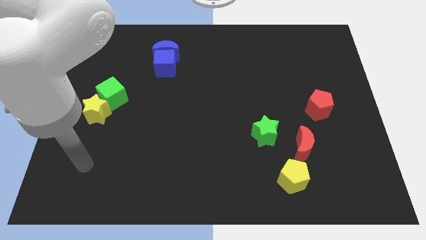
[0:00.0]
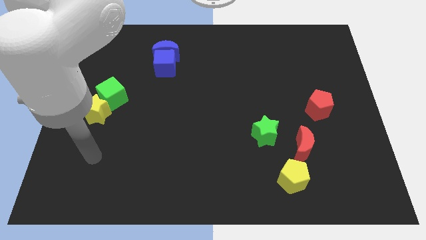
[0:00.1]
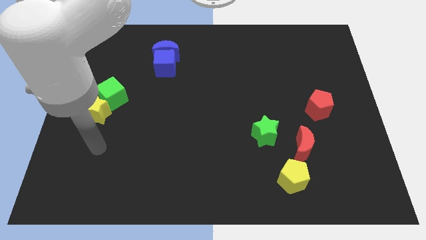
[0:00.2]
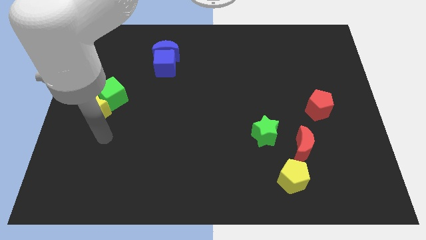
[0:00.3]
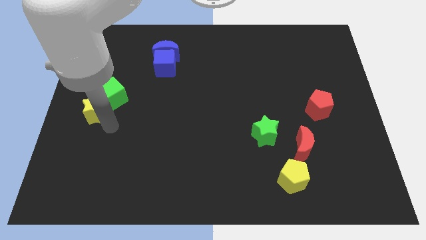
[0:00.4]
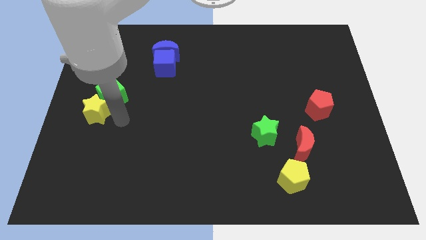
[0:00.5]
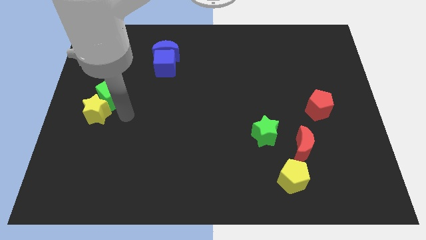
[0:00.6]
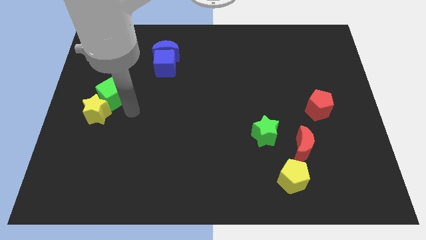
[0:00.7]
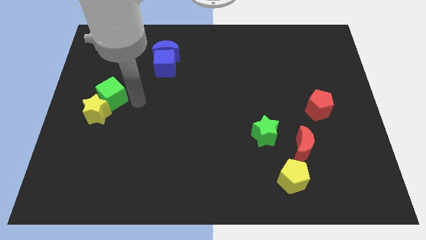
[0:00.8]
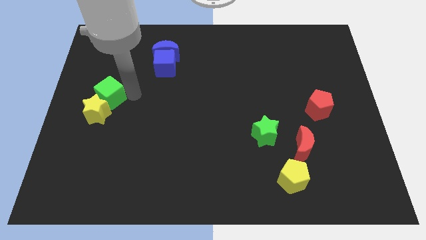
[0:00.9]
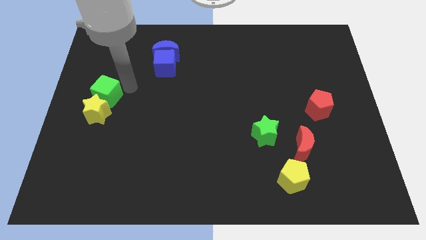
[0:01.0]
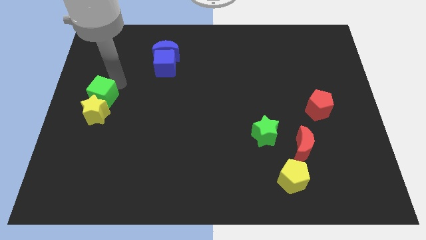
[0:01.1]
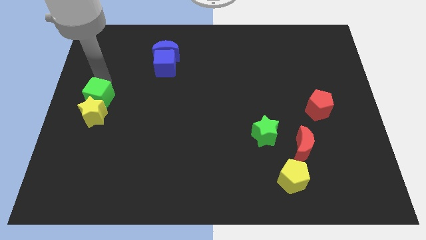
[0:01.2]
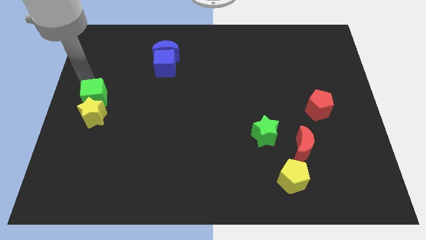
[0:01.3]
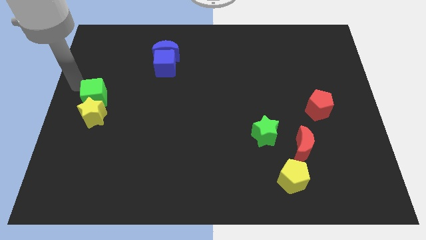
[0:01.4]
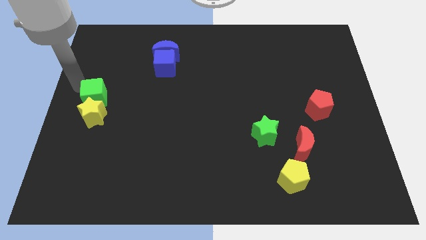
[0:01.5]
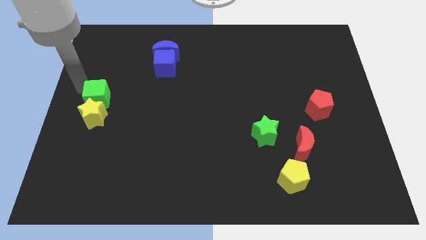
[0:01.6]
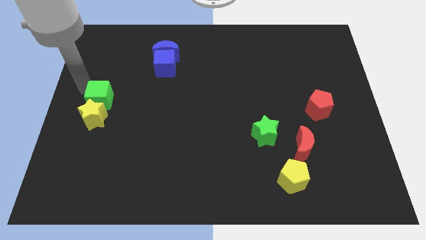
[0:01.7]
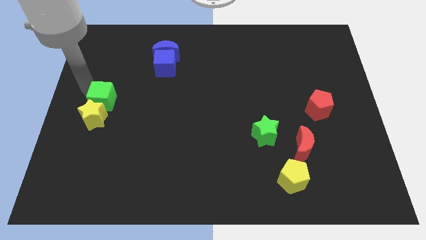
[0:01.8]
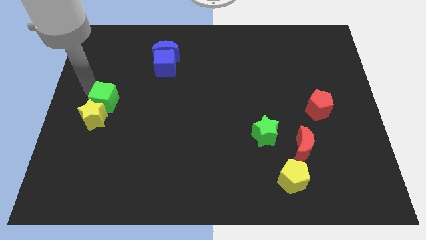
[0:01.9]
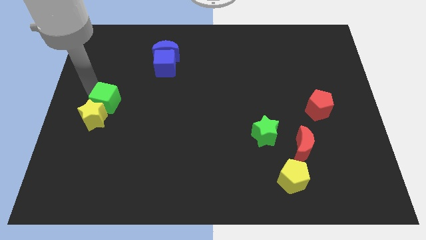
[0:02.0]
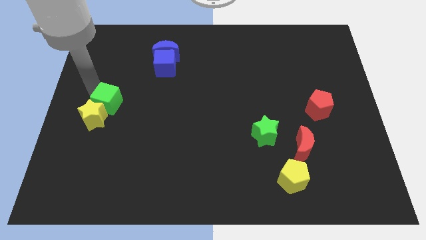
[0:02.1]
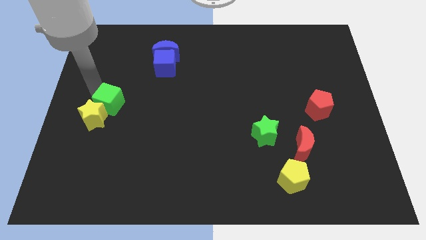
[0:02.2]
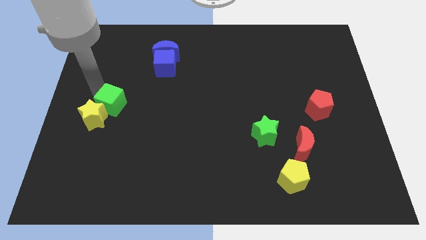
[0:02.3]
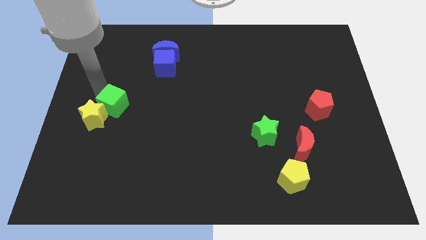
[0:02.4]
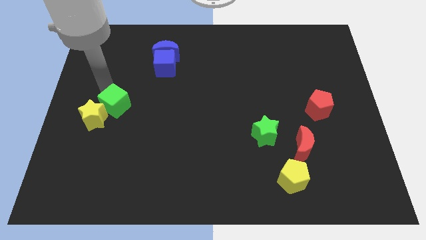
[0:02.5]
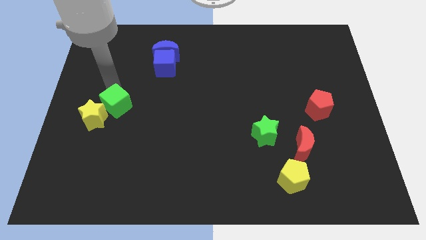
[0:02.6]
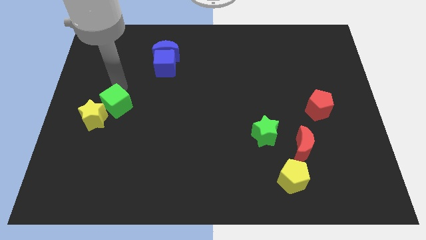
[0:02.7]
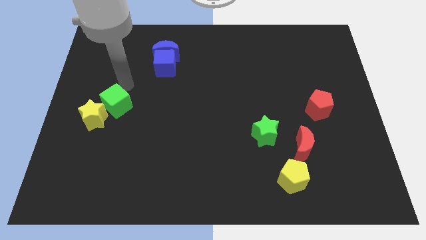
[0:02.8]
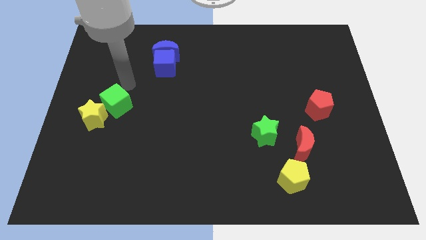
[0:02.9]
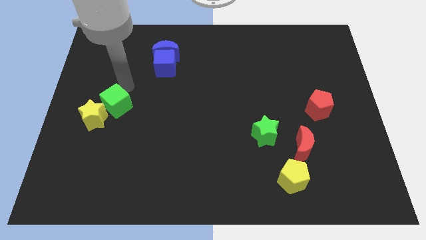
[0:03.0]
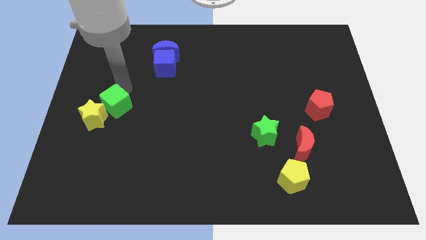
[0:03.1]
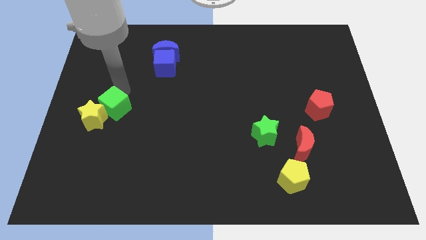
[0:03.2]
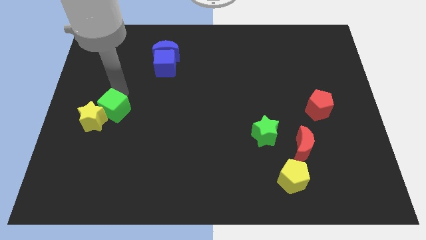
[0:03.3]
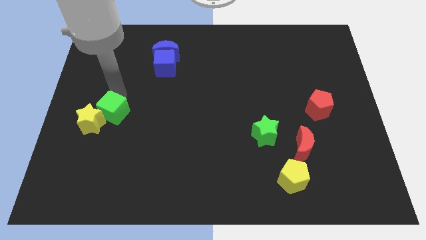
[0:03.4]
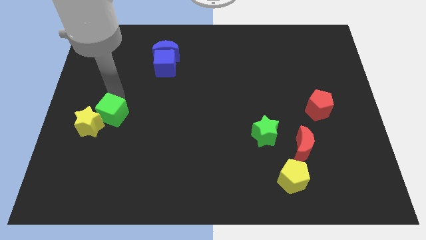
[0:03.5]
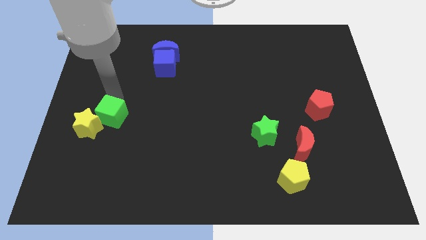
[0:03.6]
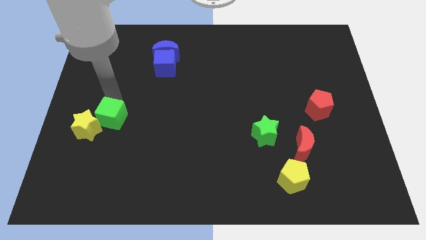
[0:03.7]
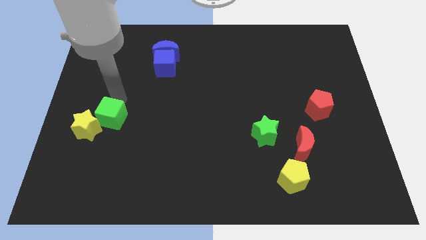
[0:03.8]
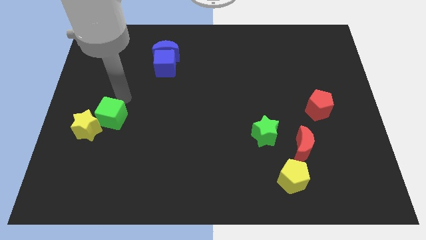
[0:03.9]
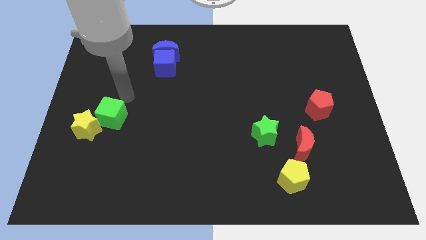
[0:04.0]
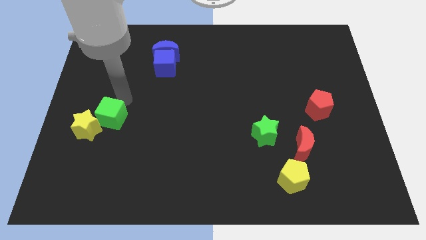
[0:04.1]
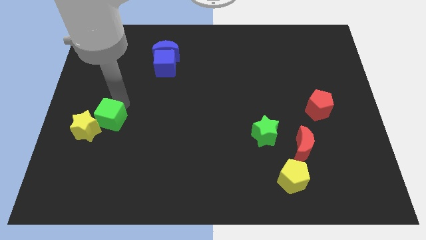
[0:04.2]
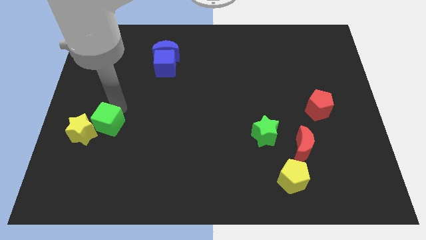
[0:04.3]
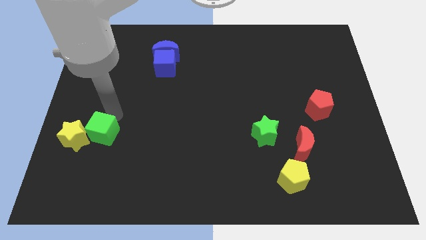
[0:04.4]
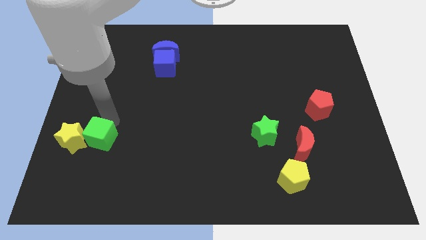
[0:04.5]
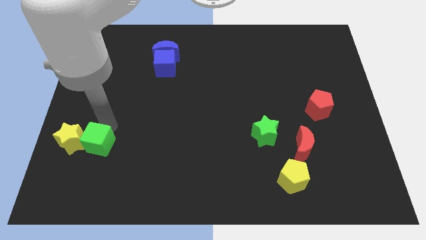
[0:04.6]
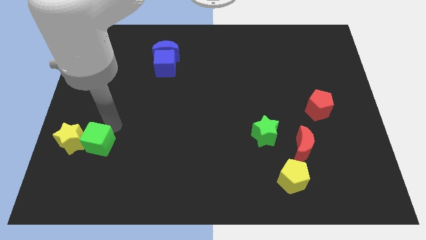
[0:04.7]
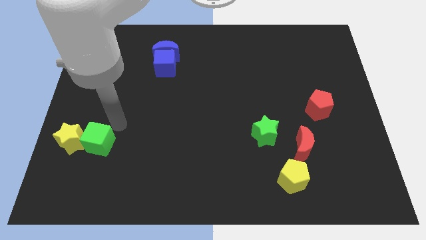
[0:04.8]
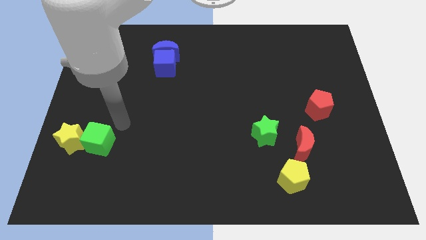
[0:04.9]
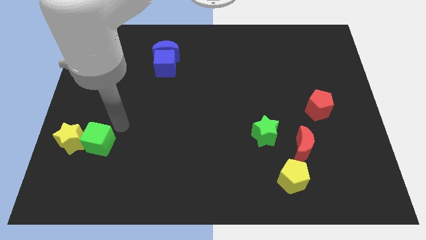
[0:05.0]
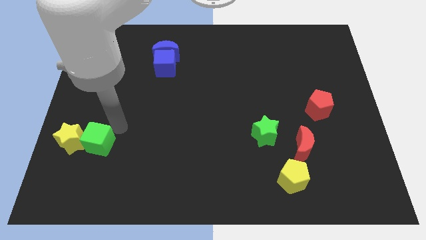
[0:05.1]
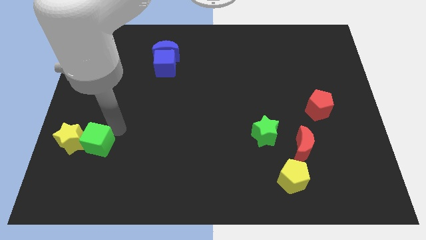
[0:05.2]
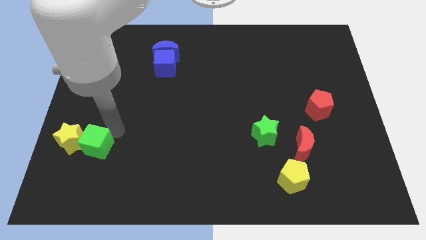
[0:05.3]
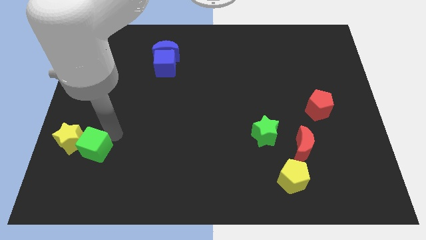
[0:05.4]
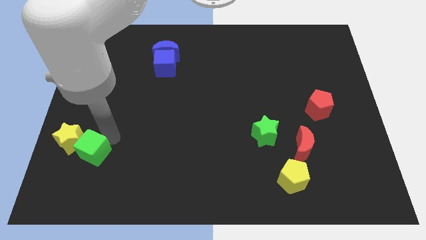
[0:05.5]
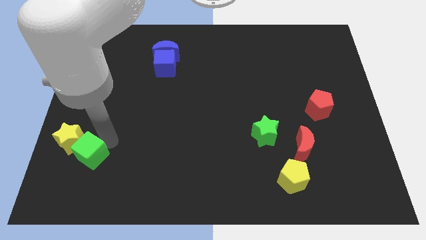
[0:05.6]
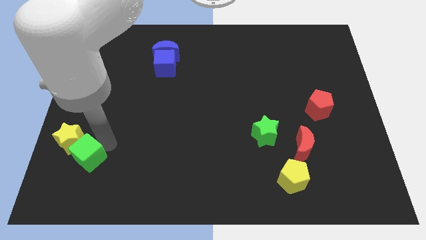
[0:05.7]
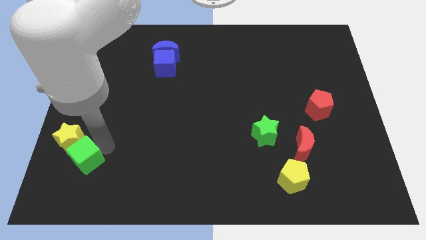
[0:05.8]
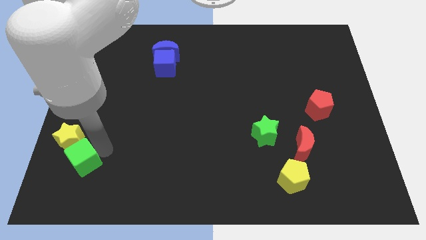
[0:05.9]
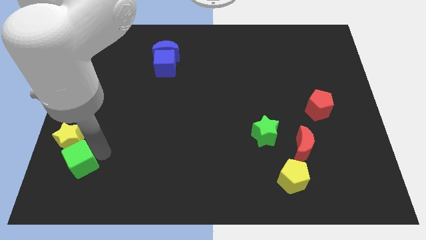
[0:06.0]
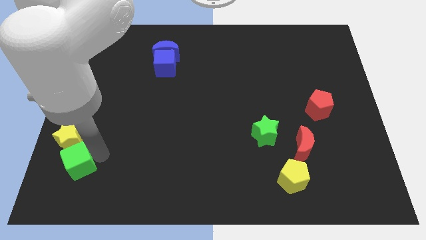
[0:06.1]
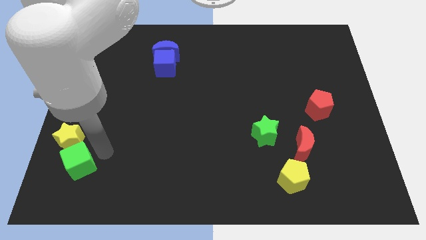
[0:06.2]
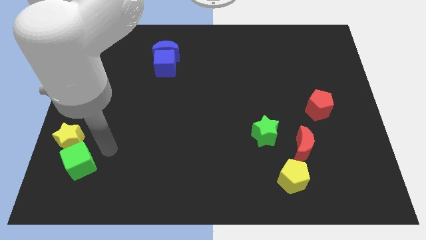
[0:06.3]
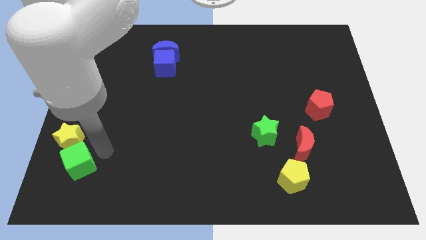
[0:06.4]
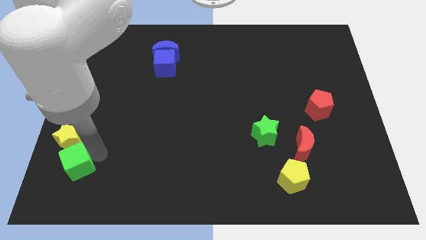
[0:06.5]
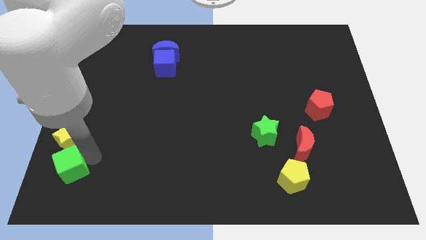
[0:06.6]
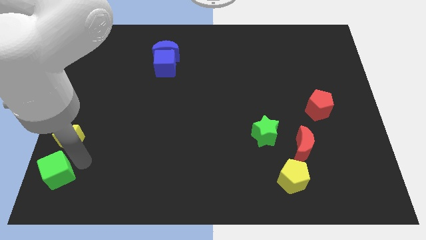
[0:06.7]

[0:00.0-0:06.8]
put the green cube to the lower left corner

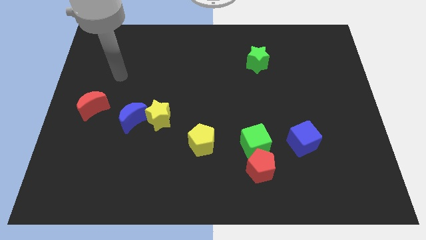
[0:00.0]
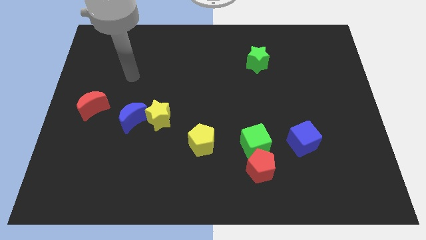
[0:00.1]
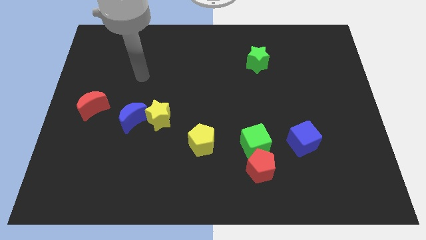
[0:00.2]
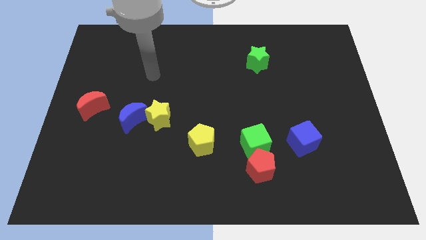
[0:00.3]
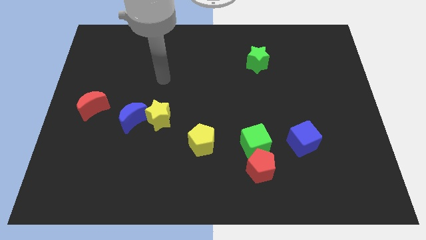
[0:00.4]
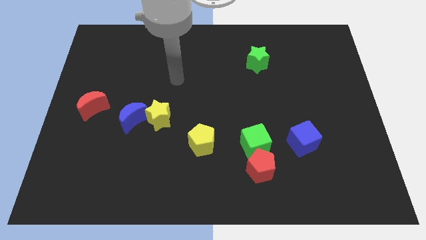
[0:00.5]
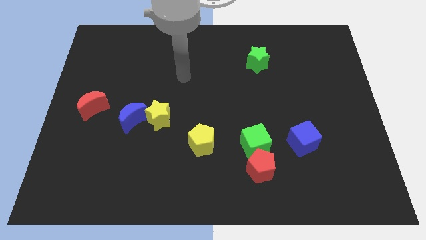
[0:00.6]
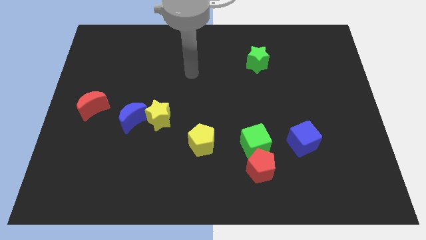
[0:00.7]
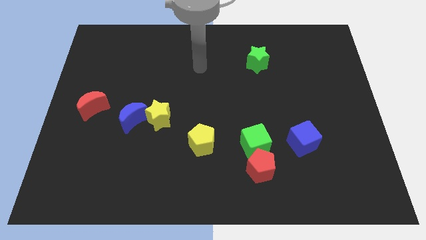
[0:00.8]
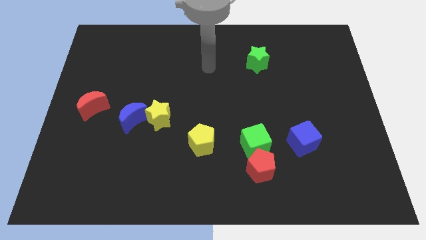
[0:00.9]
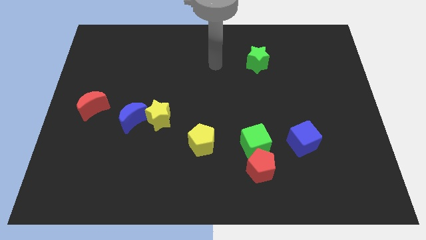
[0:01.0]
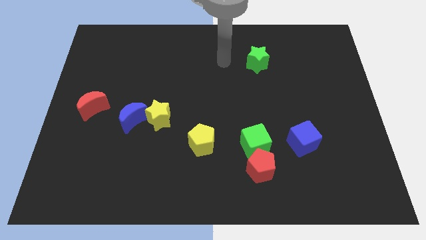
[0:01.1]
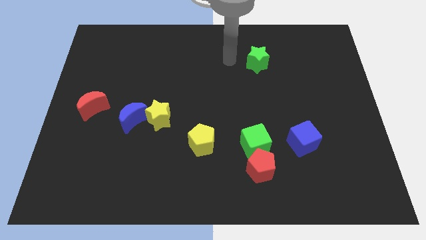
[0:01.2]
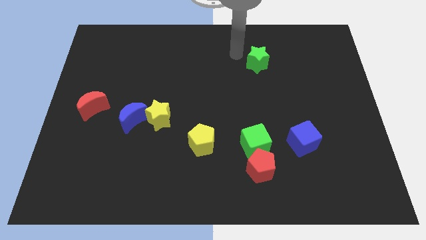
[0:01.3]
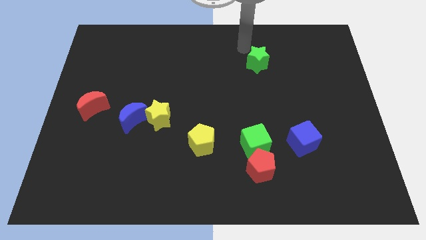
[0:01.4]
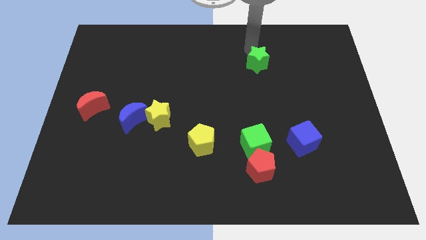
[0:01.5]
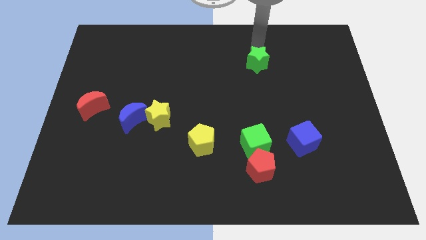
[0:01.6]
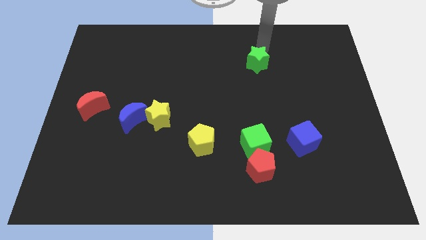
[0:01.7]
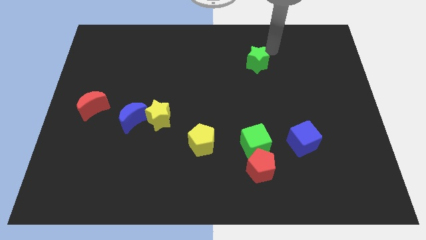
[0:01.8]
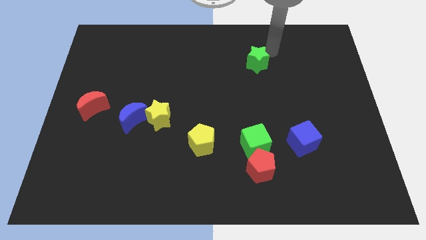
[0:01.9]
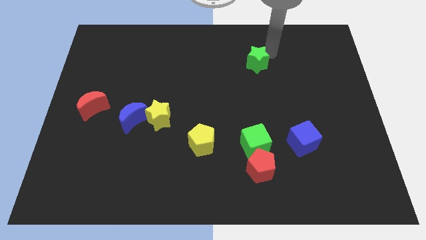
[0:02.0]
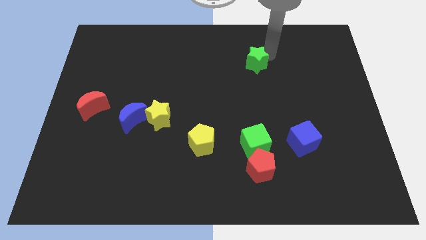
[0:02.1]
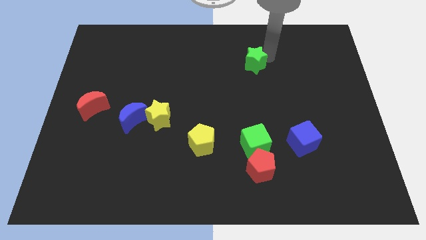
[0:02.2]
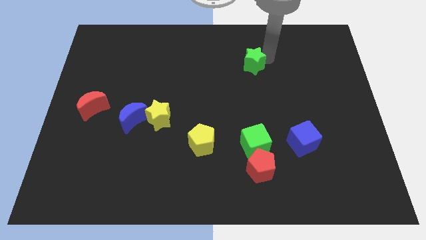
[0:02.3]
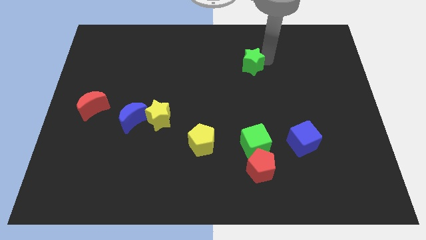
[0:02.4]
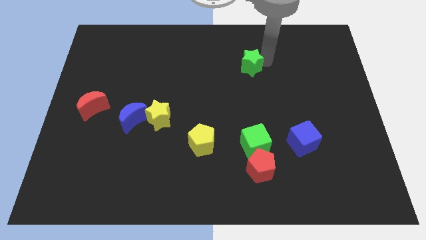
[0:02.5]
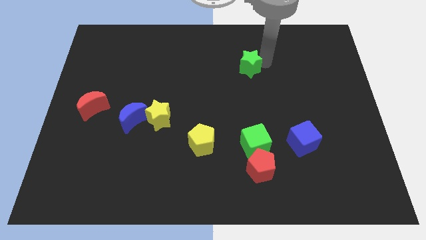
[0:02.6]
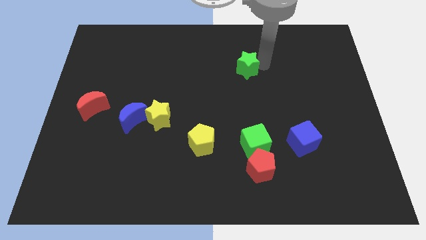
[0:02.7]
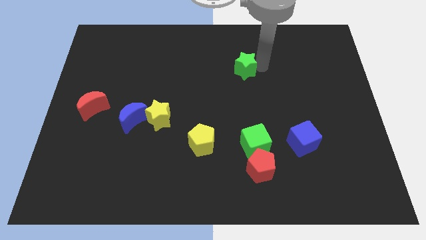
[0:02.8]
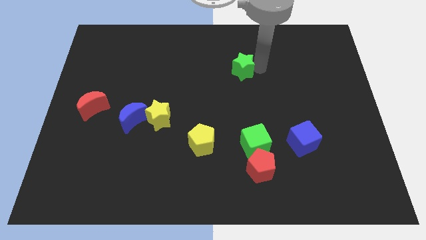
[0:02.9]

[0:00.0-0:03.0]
move the green star to the center of the board
